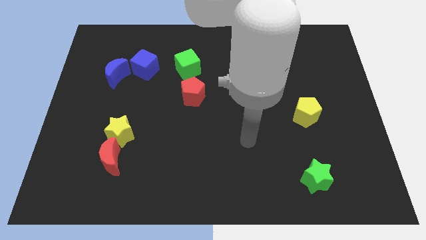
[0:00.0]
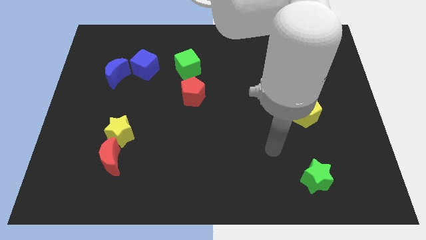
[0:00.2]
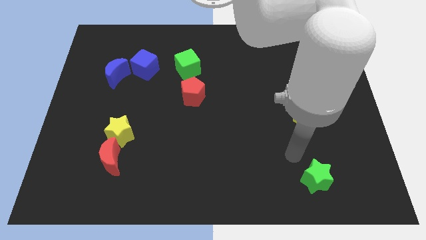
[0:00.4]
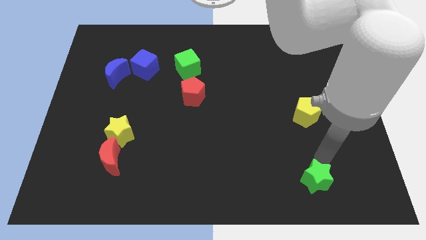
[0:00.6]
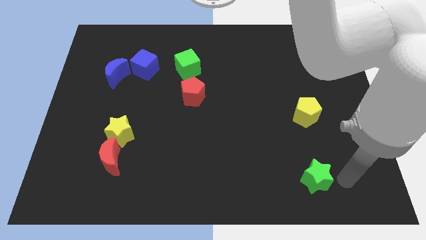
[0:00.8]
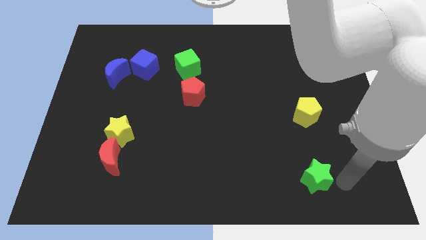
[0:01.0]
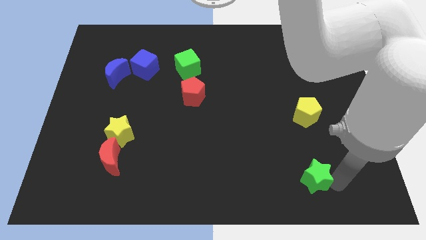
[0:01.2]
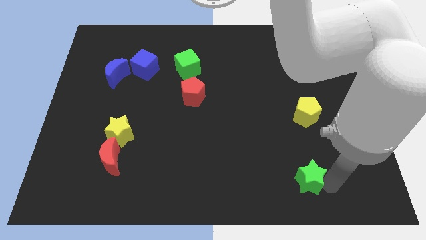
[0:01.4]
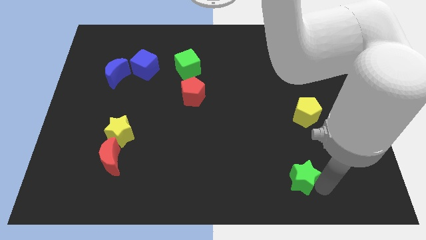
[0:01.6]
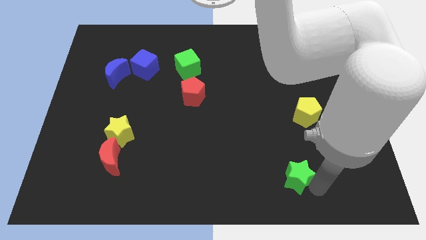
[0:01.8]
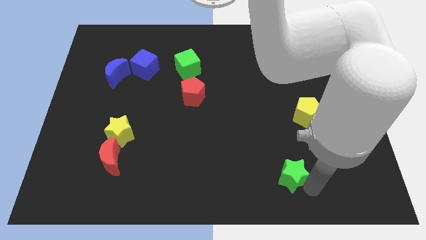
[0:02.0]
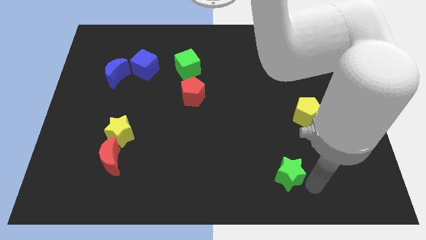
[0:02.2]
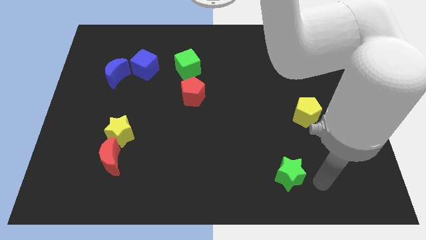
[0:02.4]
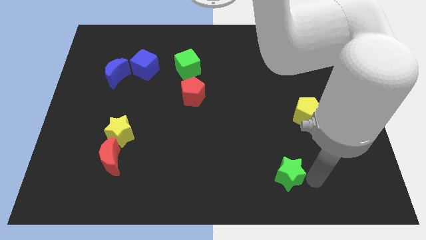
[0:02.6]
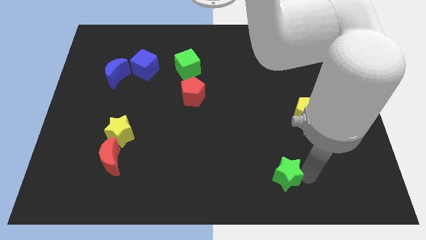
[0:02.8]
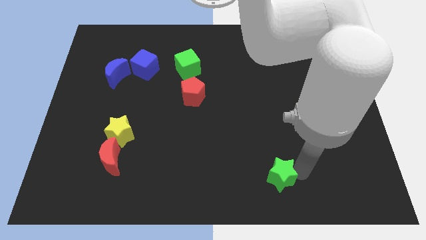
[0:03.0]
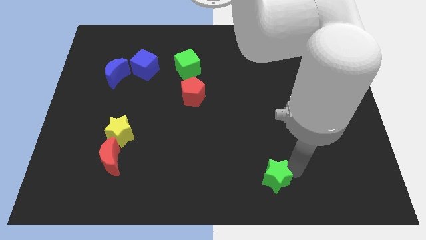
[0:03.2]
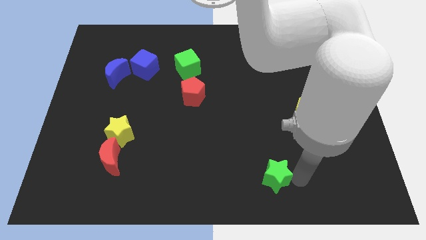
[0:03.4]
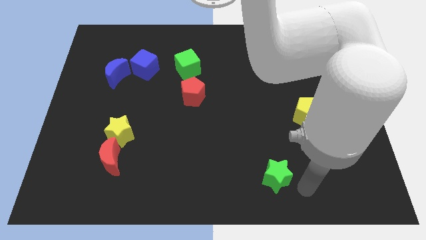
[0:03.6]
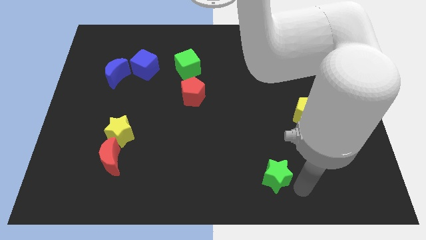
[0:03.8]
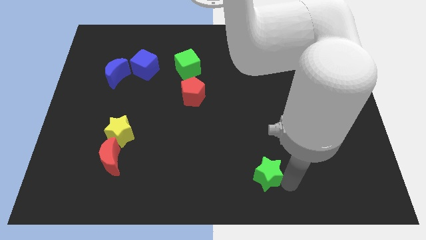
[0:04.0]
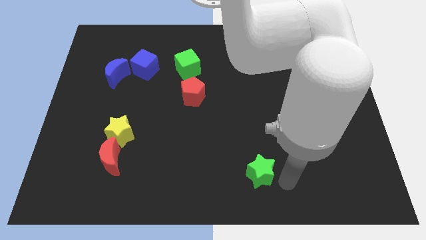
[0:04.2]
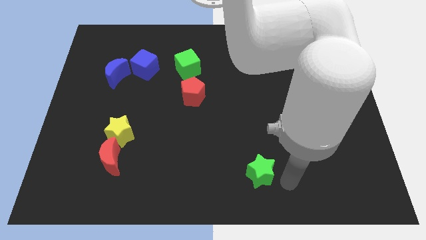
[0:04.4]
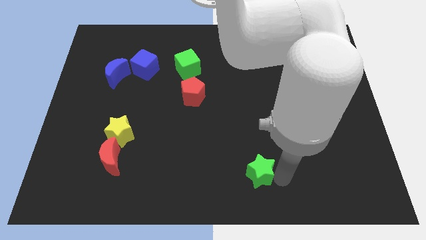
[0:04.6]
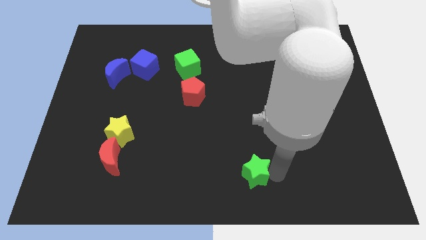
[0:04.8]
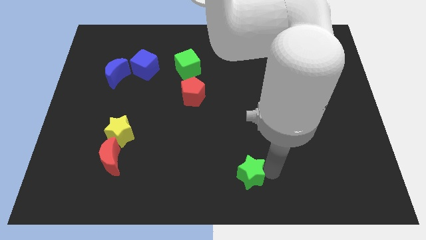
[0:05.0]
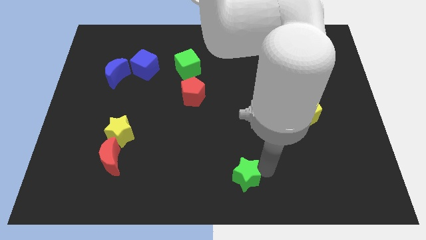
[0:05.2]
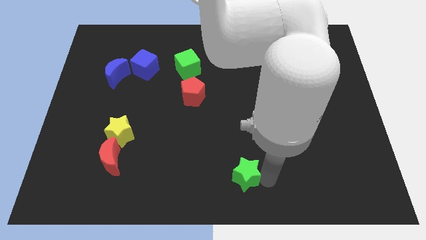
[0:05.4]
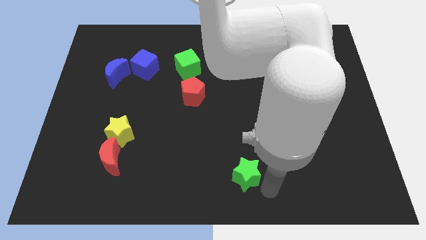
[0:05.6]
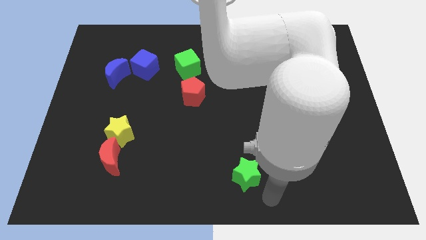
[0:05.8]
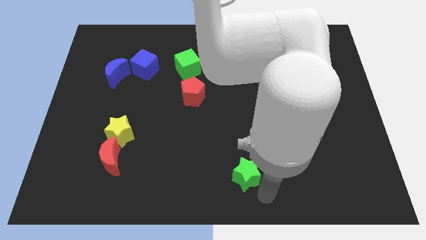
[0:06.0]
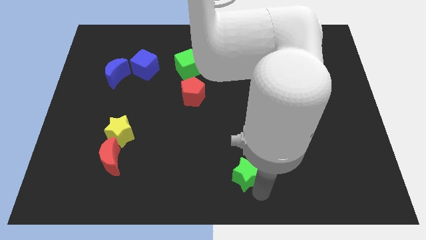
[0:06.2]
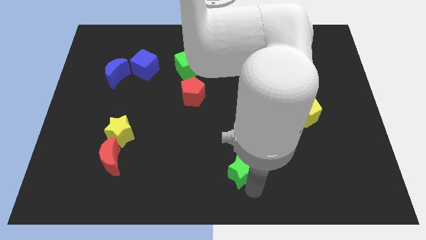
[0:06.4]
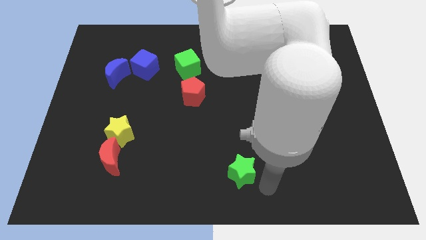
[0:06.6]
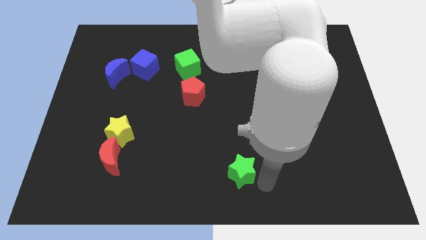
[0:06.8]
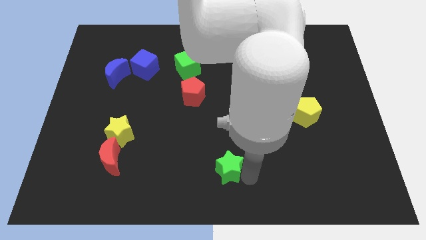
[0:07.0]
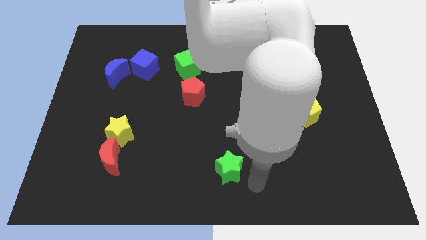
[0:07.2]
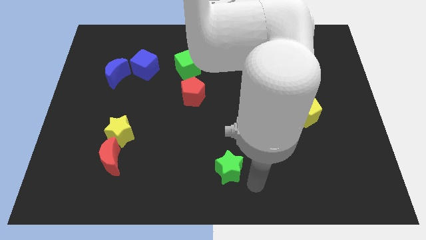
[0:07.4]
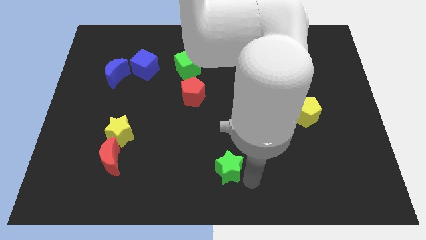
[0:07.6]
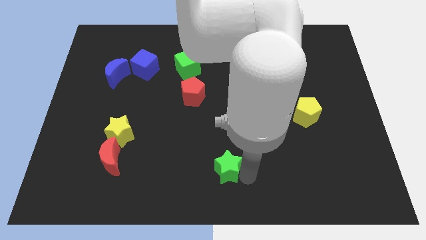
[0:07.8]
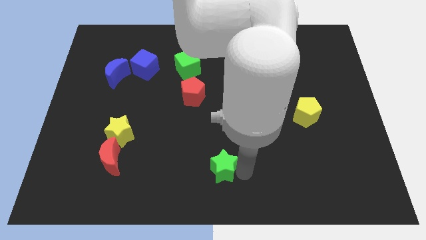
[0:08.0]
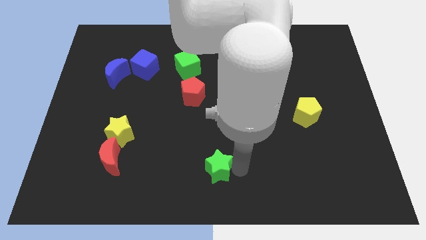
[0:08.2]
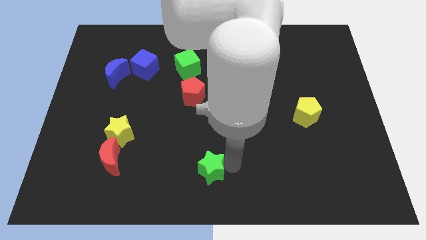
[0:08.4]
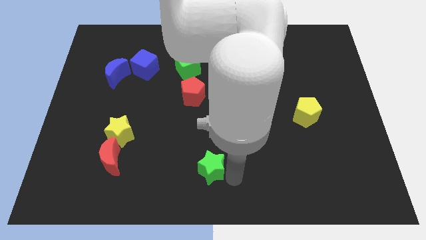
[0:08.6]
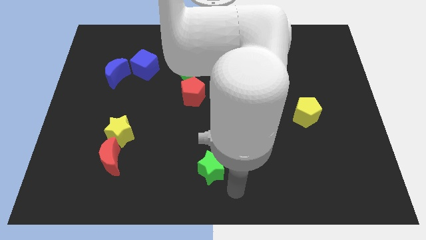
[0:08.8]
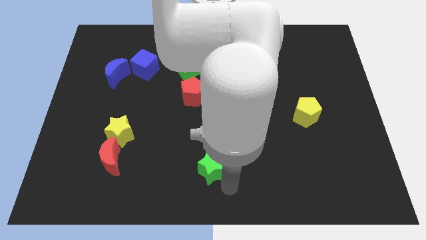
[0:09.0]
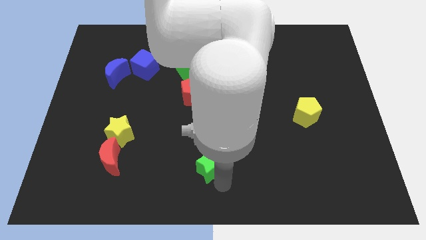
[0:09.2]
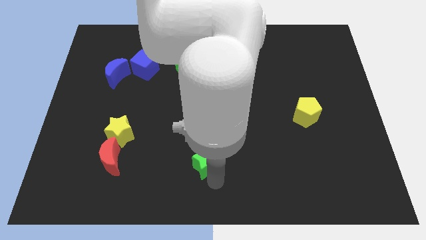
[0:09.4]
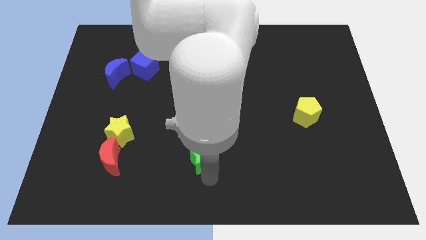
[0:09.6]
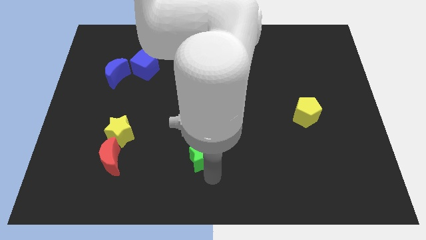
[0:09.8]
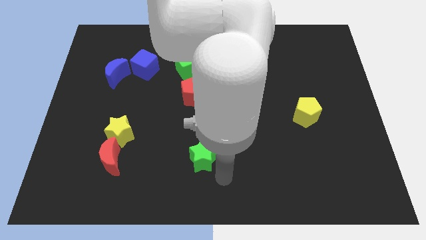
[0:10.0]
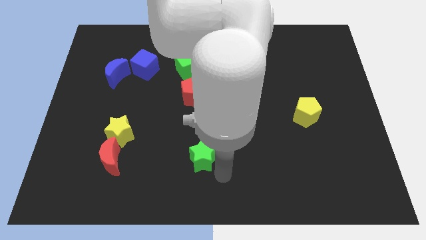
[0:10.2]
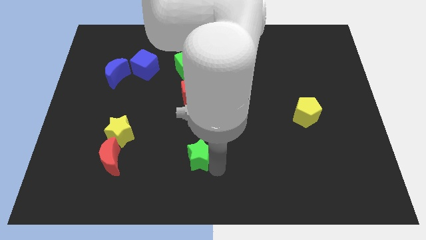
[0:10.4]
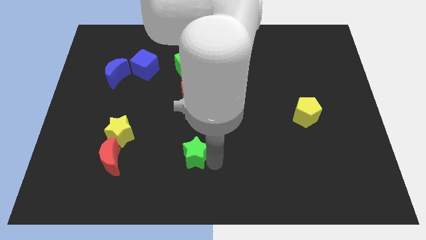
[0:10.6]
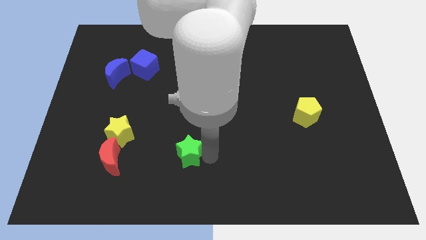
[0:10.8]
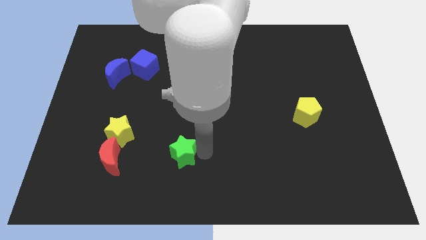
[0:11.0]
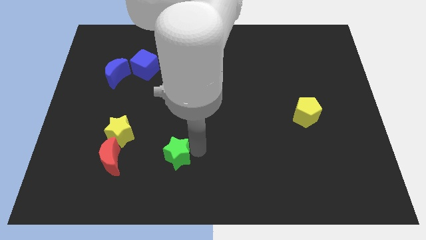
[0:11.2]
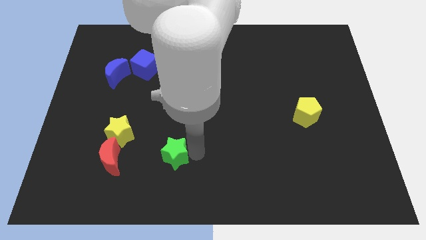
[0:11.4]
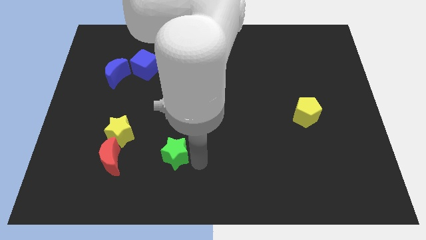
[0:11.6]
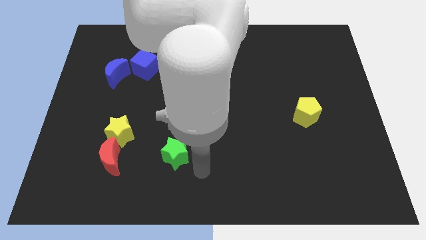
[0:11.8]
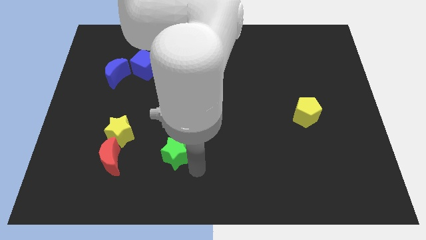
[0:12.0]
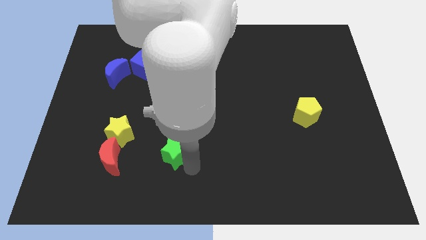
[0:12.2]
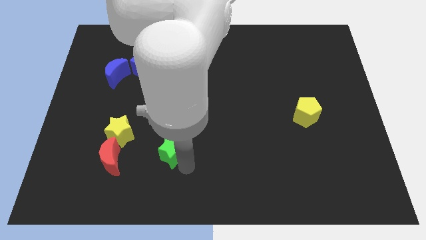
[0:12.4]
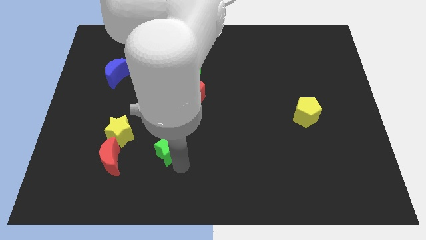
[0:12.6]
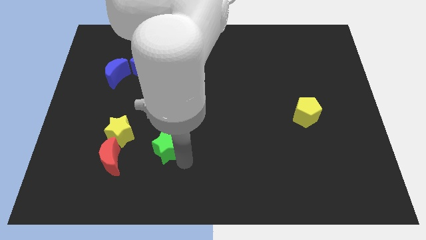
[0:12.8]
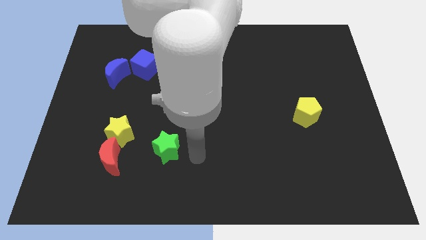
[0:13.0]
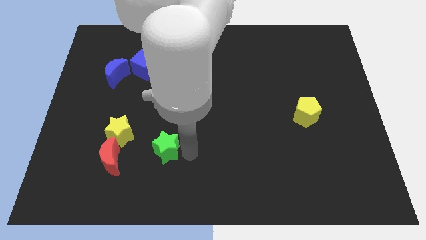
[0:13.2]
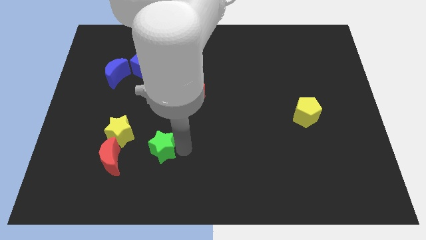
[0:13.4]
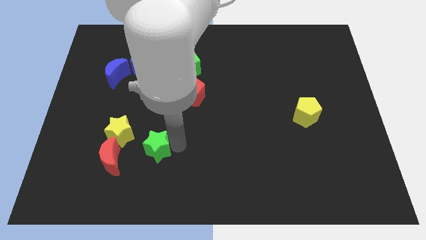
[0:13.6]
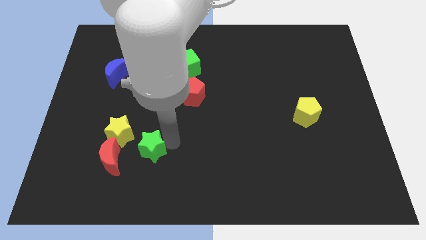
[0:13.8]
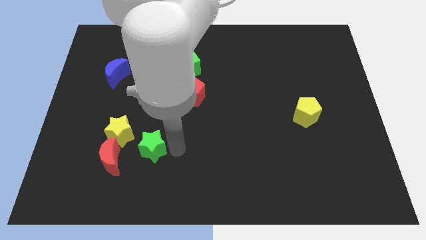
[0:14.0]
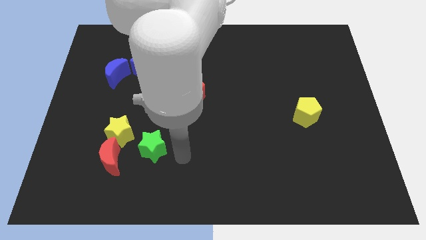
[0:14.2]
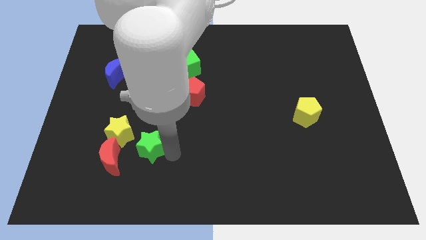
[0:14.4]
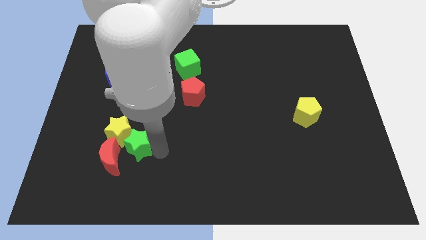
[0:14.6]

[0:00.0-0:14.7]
push the green star towards the yellow star

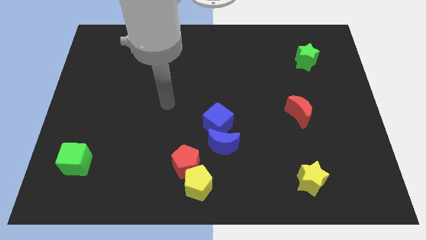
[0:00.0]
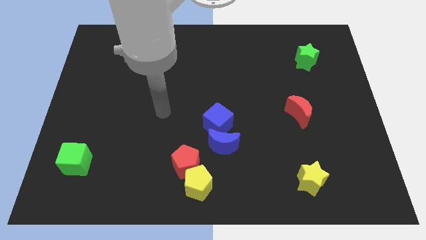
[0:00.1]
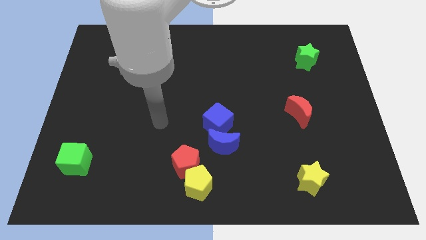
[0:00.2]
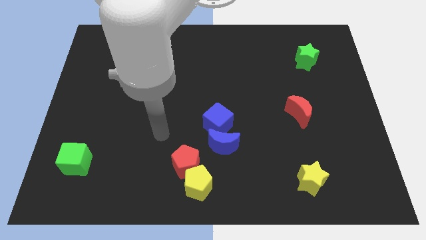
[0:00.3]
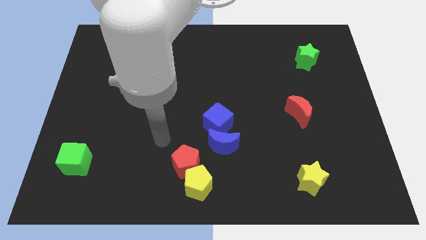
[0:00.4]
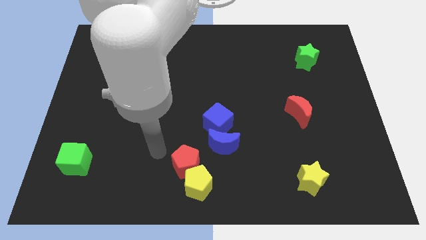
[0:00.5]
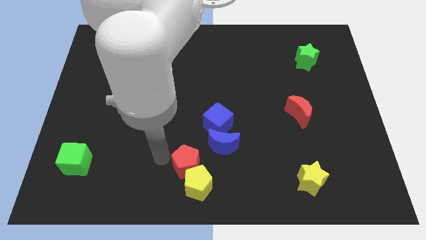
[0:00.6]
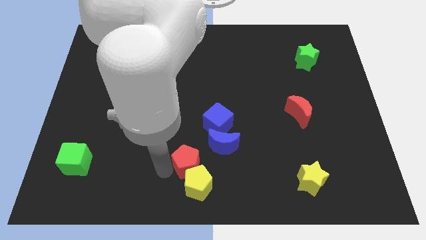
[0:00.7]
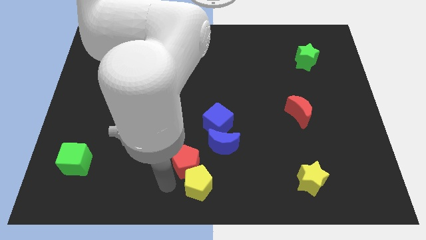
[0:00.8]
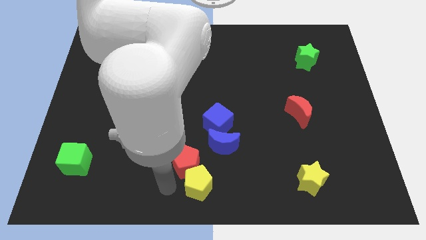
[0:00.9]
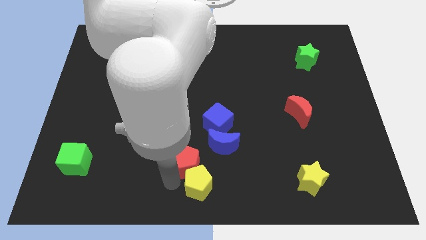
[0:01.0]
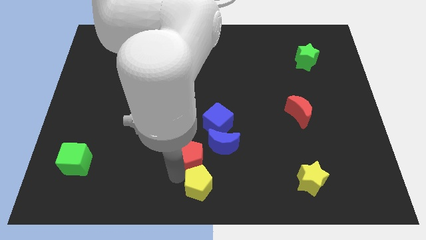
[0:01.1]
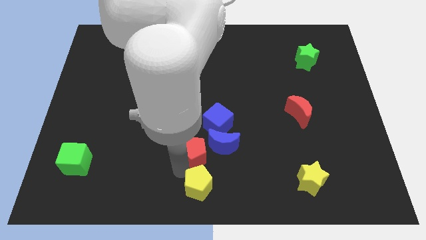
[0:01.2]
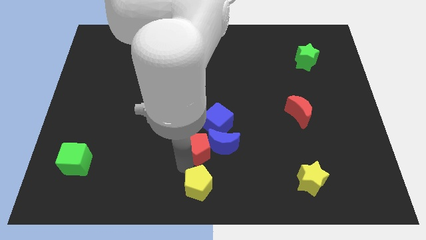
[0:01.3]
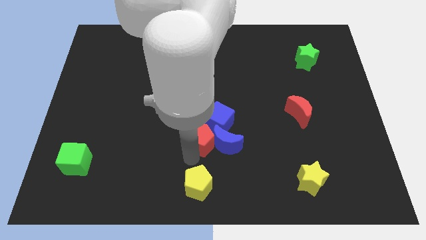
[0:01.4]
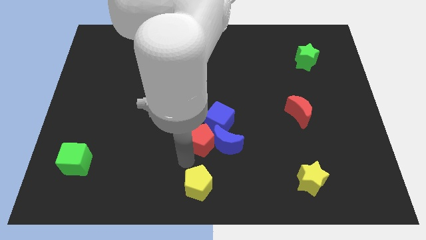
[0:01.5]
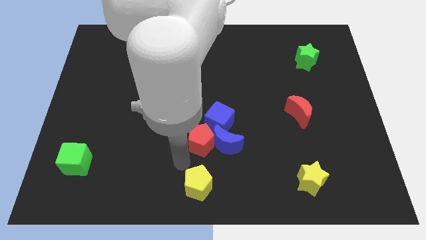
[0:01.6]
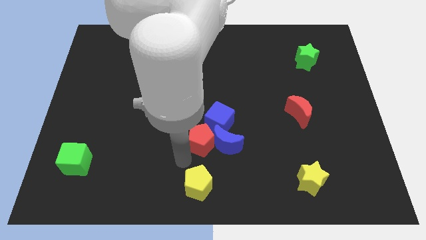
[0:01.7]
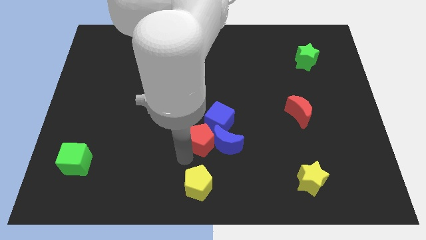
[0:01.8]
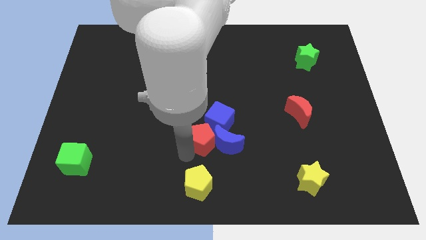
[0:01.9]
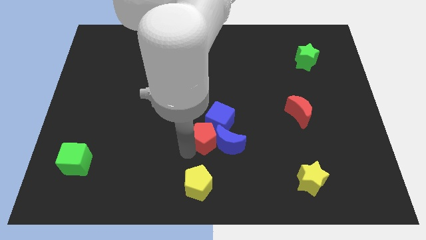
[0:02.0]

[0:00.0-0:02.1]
slide the red pentagon close to the blue cube
